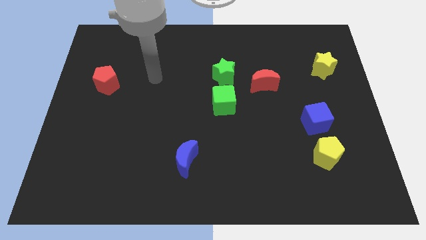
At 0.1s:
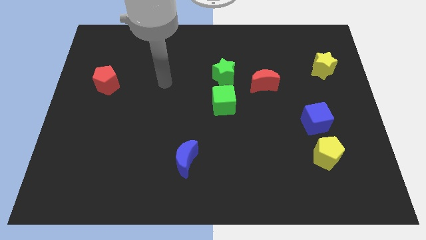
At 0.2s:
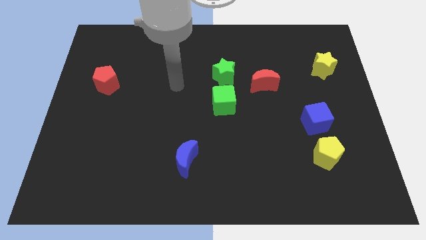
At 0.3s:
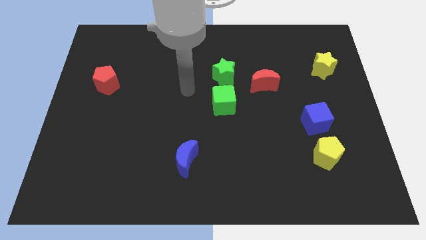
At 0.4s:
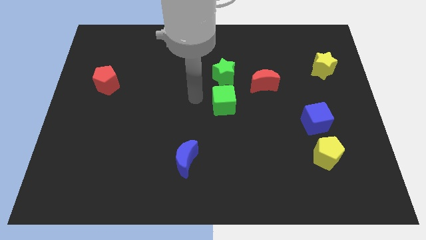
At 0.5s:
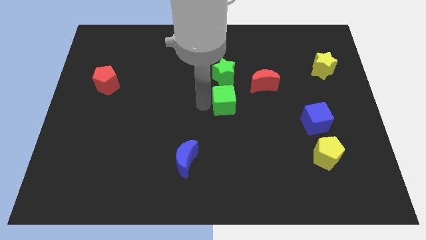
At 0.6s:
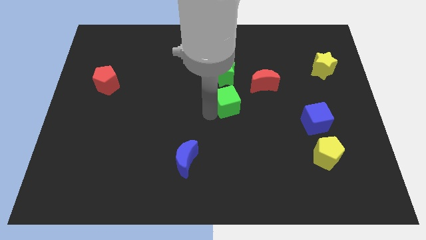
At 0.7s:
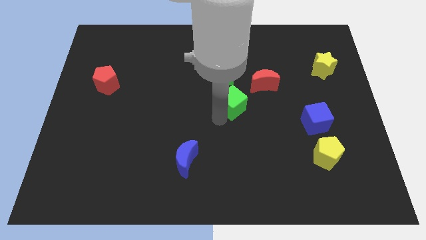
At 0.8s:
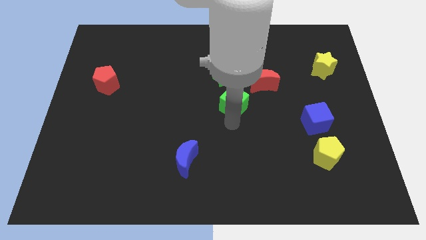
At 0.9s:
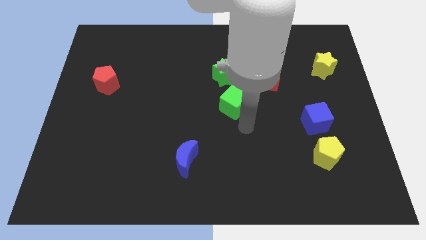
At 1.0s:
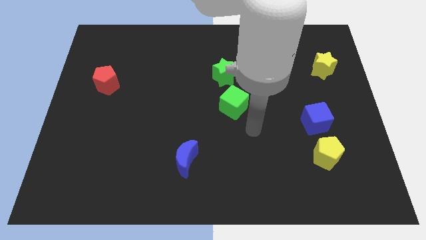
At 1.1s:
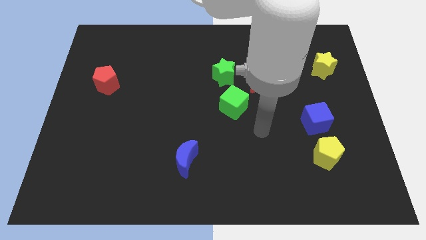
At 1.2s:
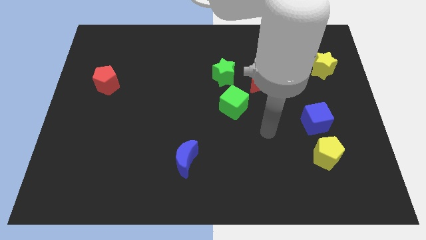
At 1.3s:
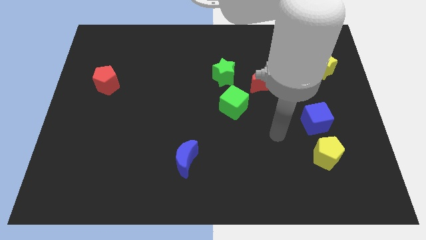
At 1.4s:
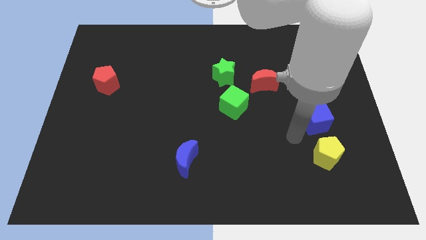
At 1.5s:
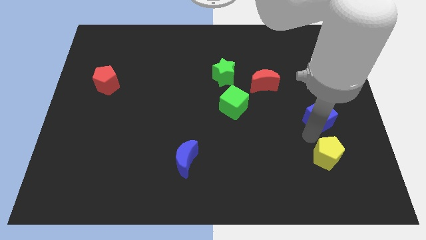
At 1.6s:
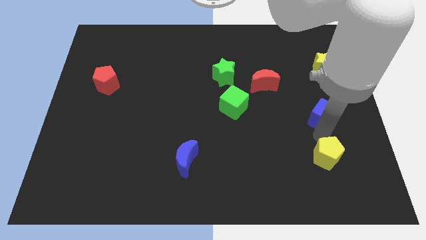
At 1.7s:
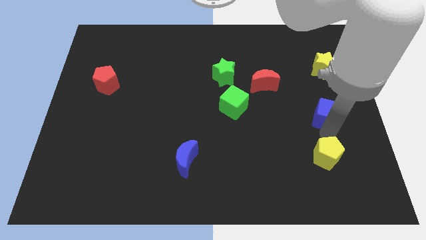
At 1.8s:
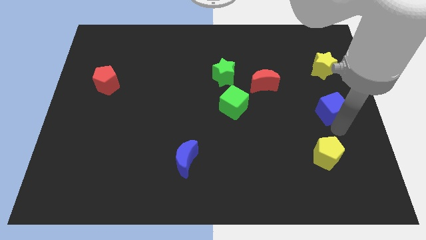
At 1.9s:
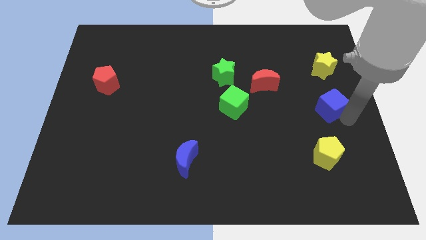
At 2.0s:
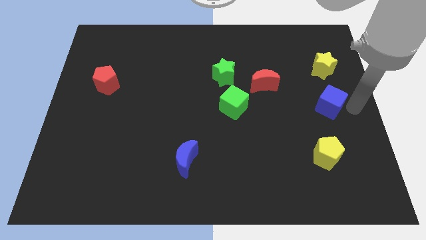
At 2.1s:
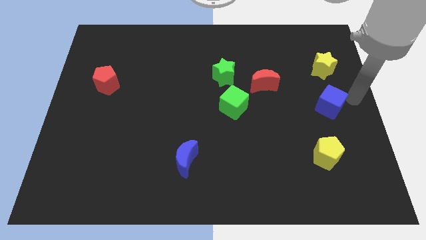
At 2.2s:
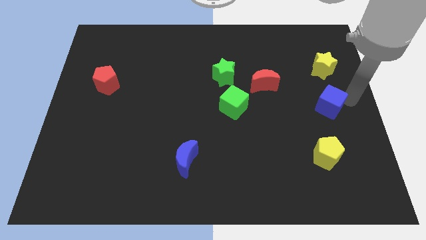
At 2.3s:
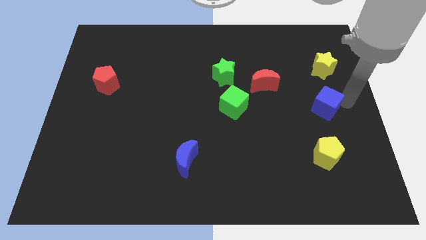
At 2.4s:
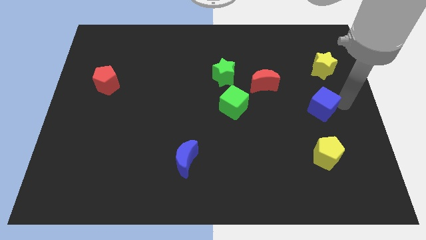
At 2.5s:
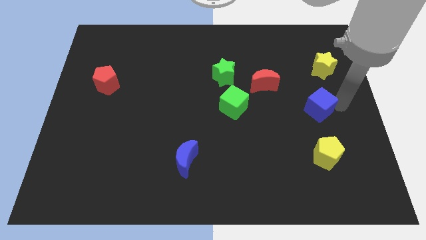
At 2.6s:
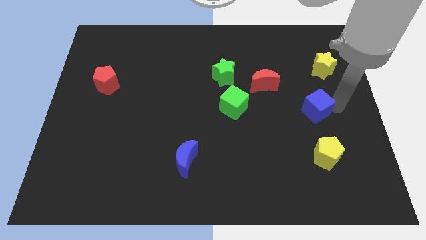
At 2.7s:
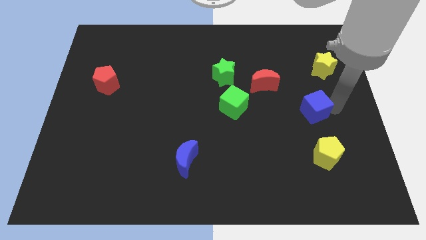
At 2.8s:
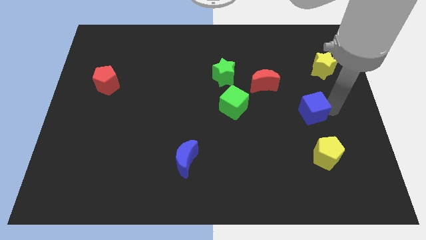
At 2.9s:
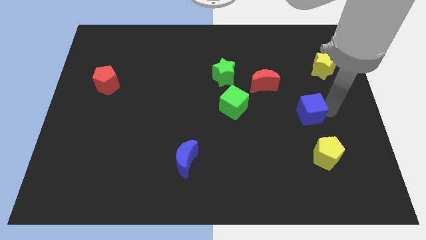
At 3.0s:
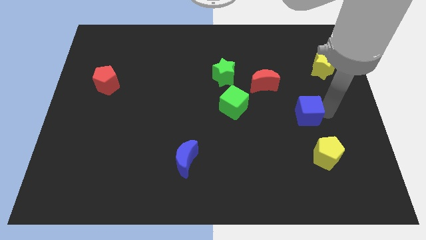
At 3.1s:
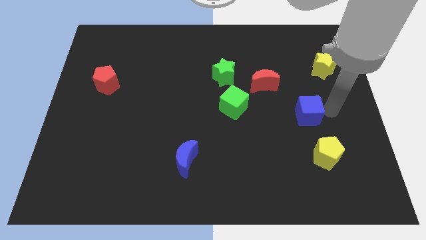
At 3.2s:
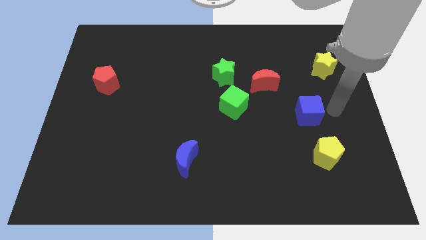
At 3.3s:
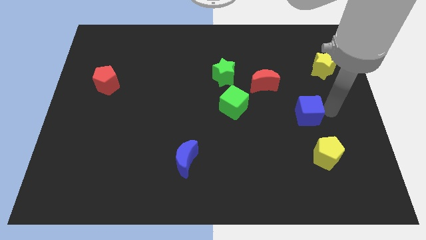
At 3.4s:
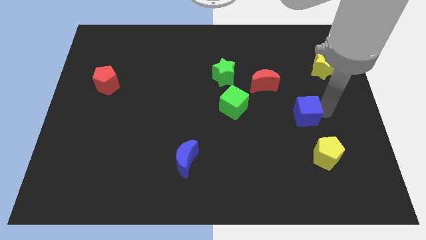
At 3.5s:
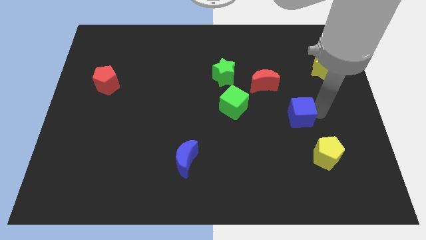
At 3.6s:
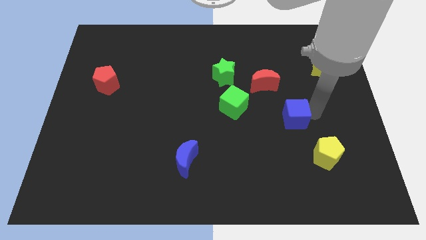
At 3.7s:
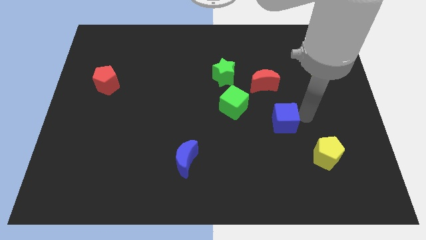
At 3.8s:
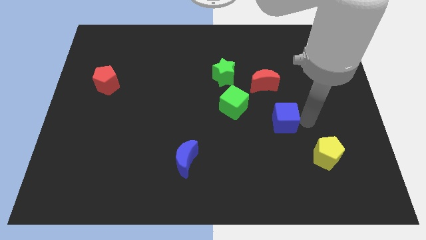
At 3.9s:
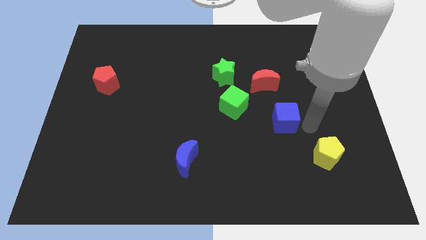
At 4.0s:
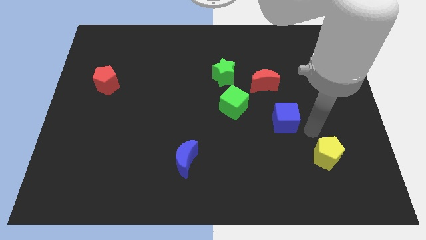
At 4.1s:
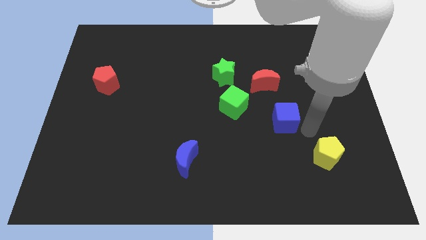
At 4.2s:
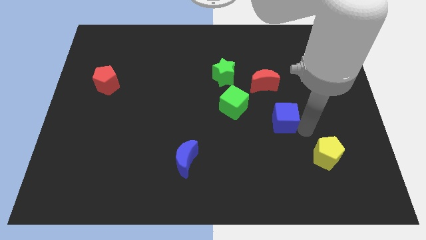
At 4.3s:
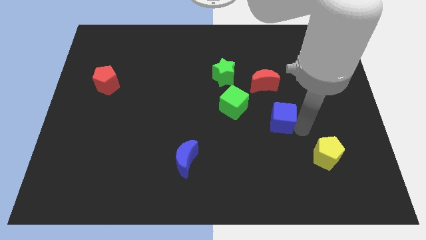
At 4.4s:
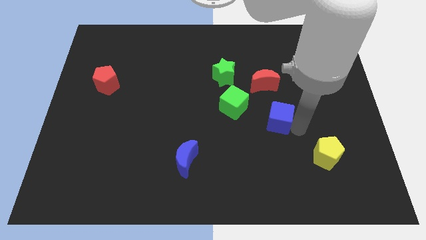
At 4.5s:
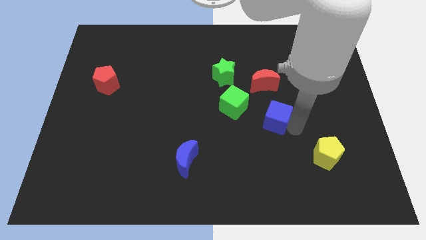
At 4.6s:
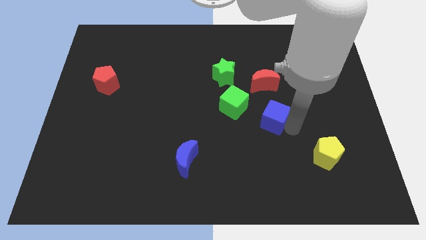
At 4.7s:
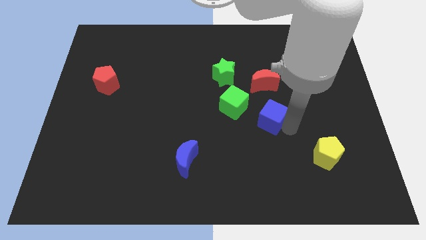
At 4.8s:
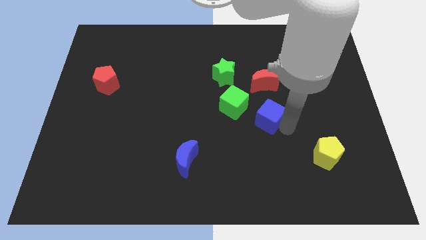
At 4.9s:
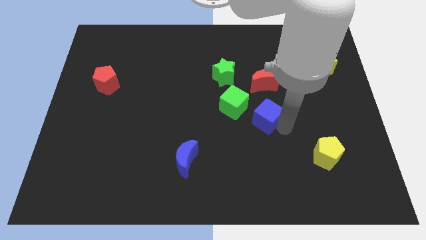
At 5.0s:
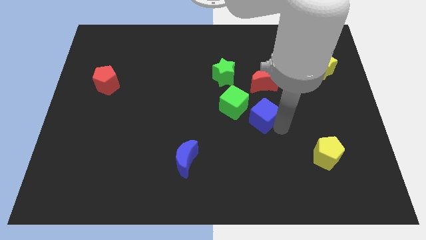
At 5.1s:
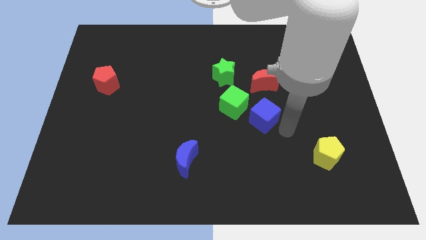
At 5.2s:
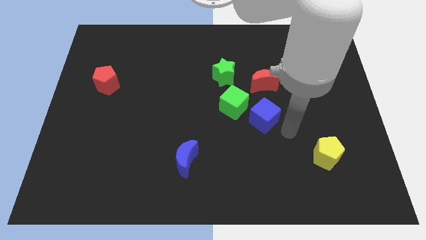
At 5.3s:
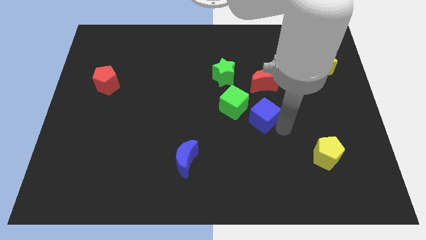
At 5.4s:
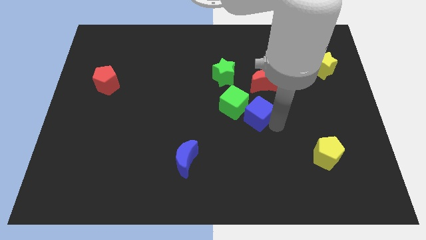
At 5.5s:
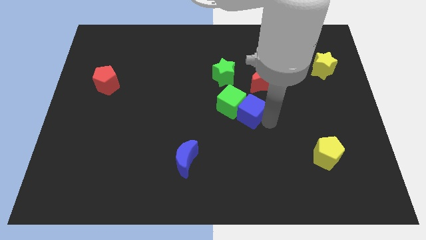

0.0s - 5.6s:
slide the blue cube next to the green cube

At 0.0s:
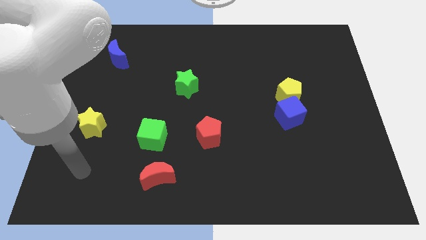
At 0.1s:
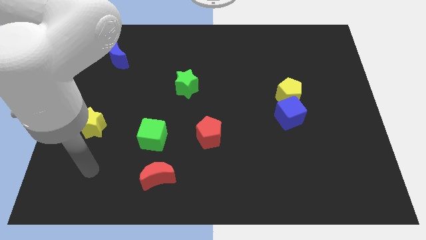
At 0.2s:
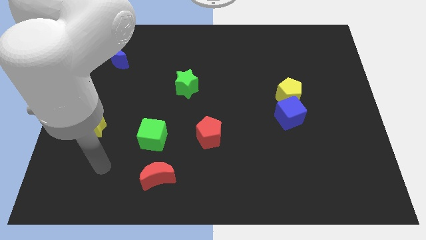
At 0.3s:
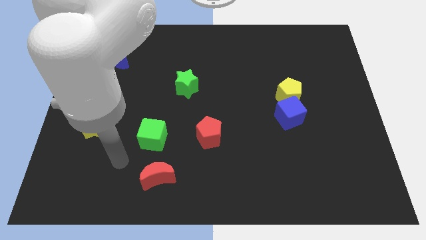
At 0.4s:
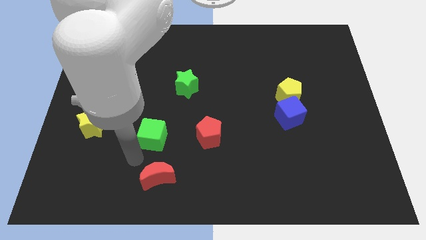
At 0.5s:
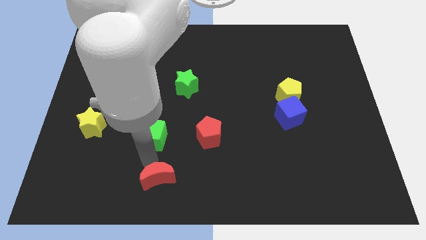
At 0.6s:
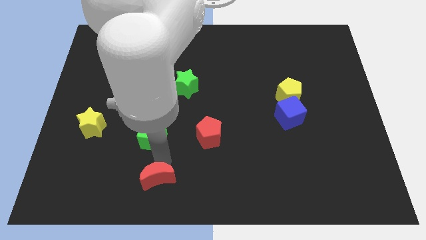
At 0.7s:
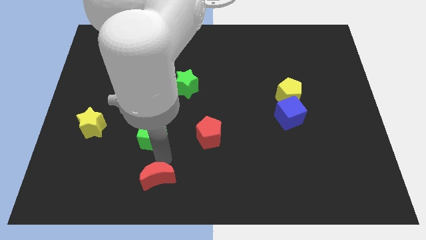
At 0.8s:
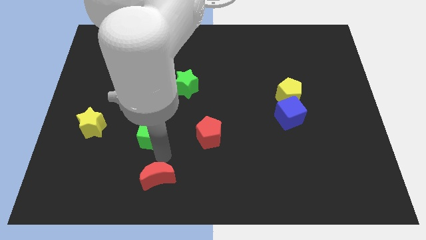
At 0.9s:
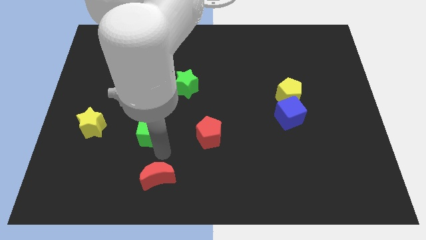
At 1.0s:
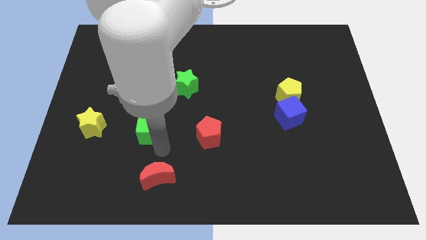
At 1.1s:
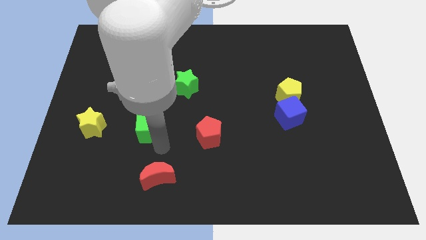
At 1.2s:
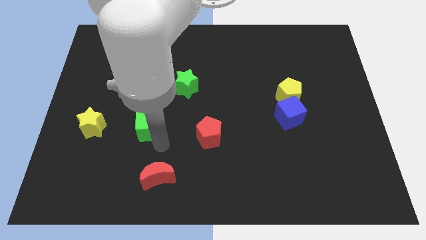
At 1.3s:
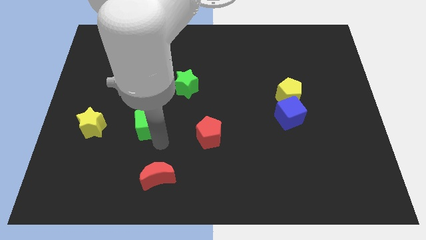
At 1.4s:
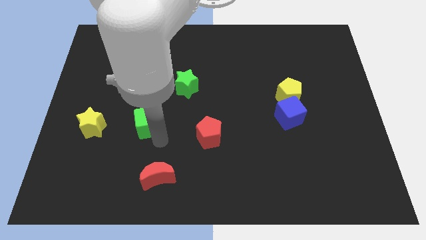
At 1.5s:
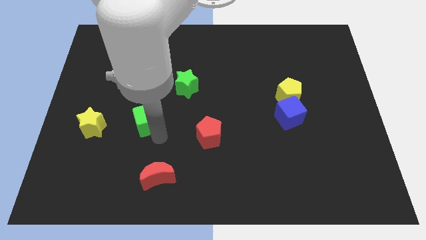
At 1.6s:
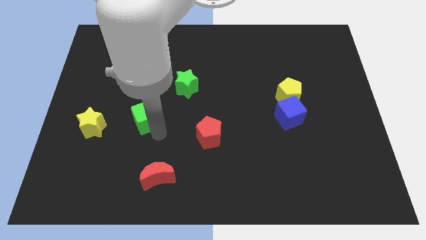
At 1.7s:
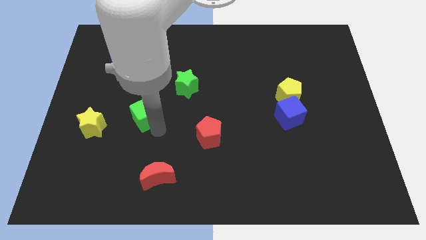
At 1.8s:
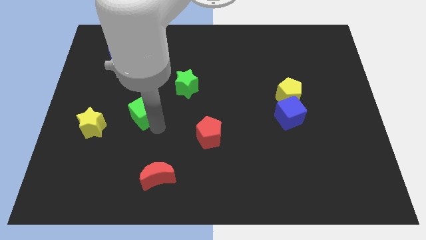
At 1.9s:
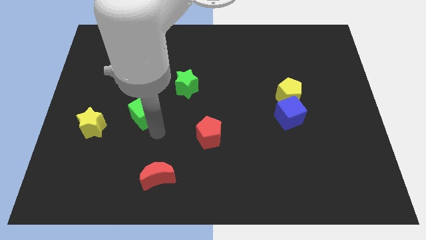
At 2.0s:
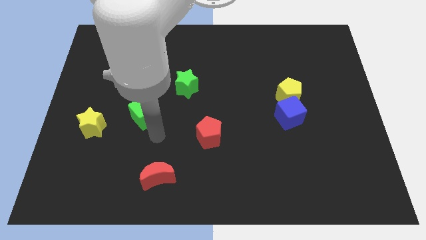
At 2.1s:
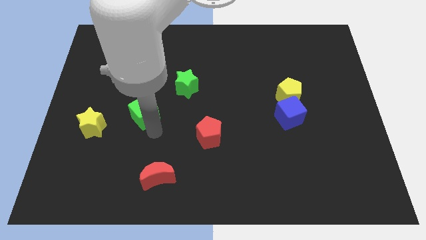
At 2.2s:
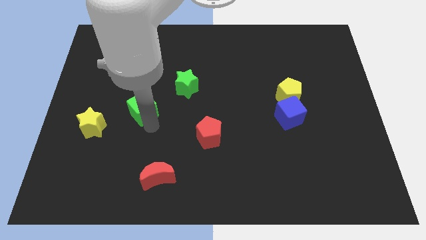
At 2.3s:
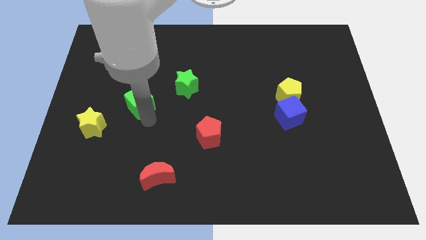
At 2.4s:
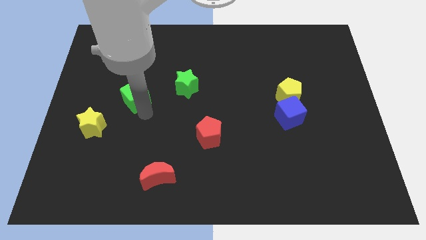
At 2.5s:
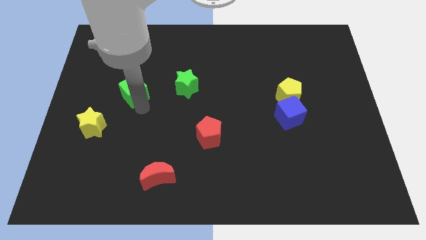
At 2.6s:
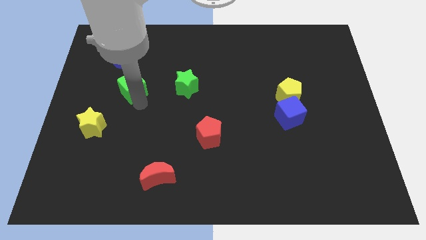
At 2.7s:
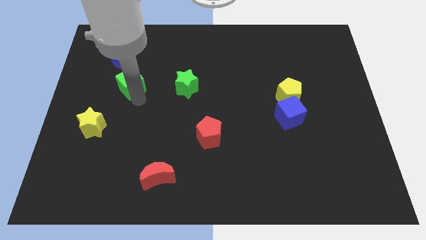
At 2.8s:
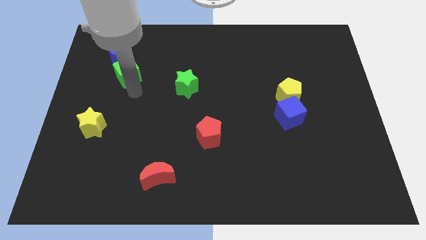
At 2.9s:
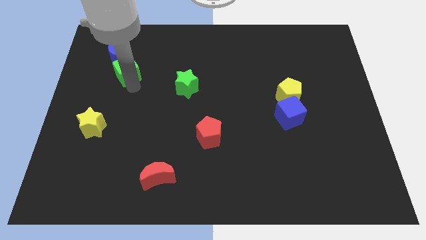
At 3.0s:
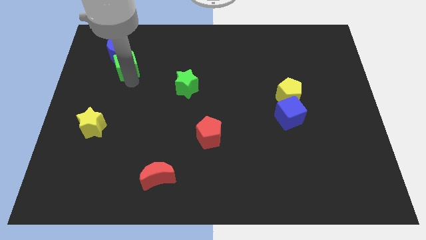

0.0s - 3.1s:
push the green cube to the blue moon
